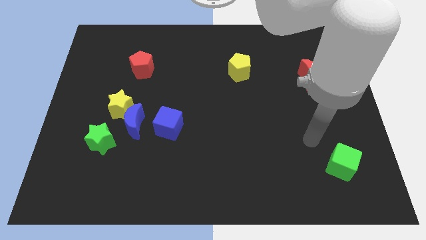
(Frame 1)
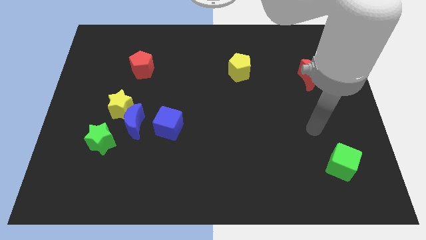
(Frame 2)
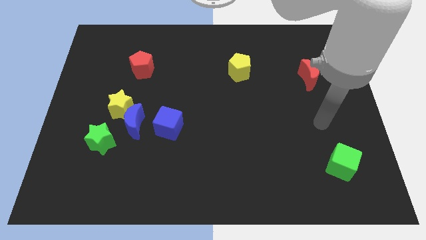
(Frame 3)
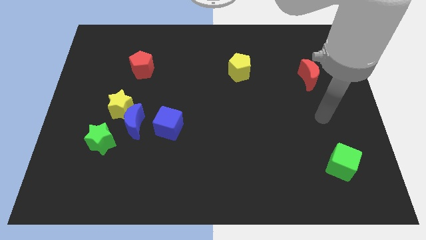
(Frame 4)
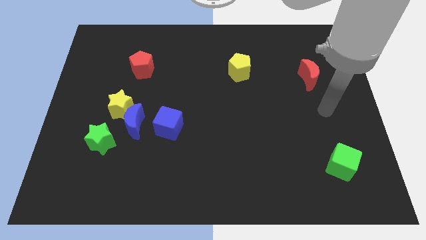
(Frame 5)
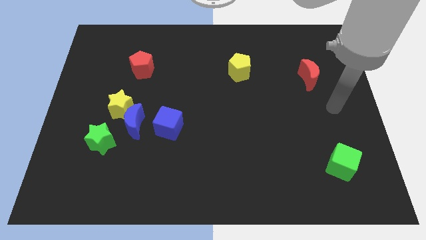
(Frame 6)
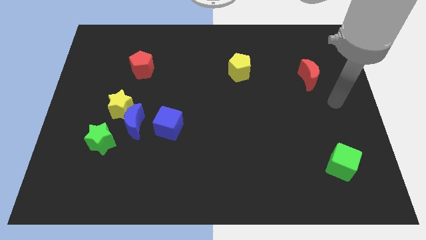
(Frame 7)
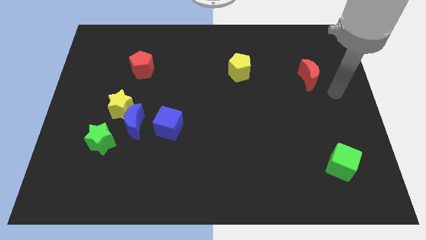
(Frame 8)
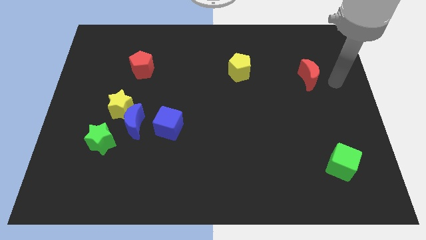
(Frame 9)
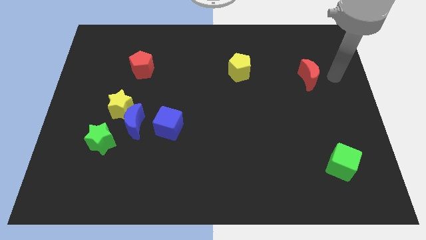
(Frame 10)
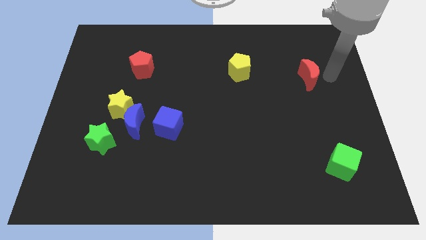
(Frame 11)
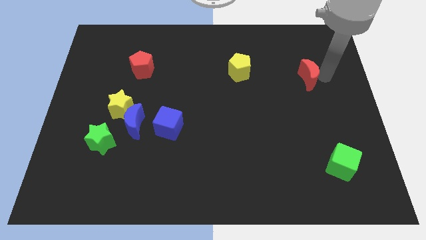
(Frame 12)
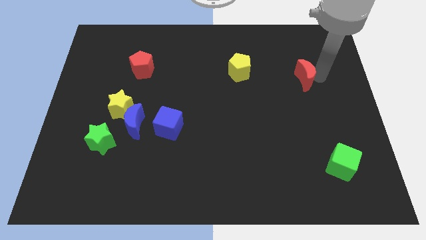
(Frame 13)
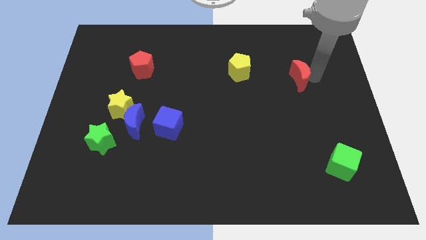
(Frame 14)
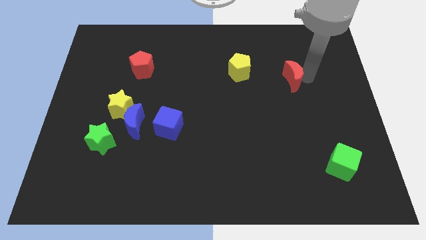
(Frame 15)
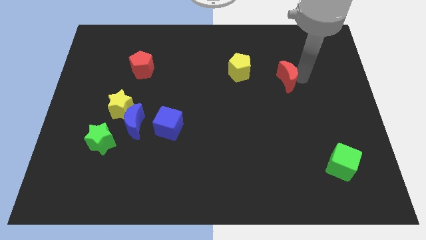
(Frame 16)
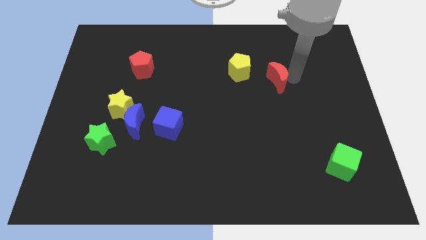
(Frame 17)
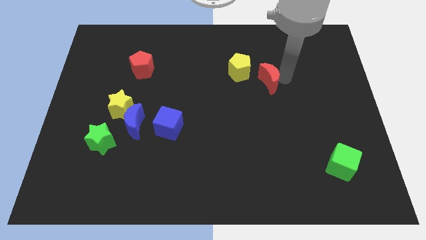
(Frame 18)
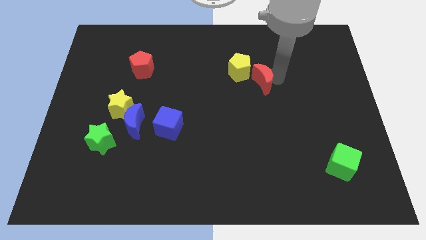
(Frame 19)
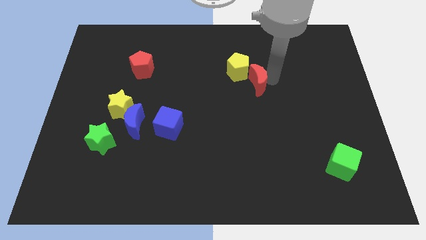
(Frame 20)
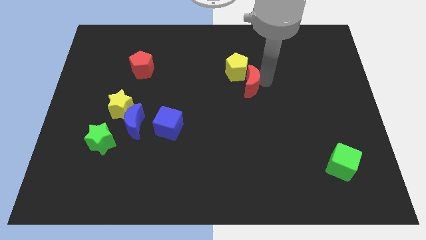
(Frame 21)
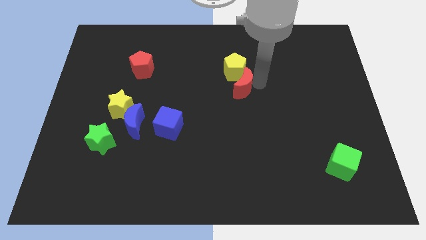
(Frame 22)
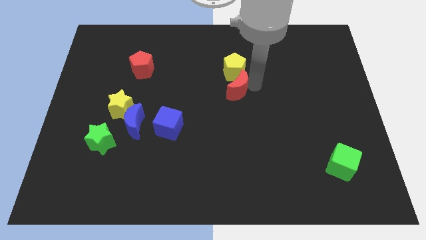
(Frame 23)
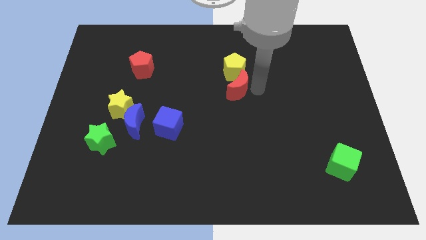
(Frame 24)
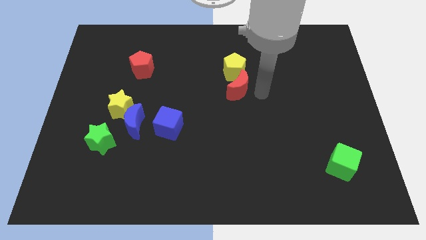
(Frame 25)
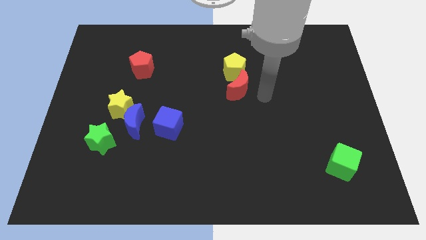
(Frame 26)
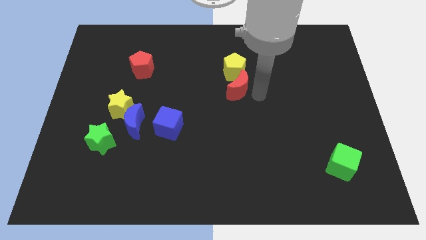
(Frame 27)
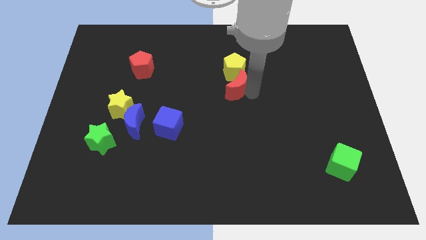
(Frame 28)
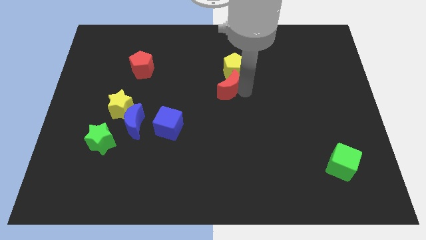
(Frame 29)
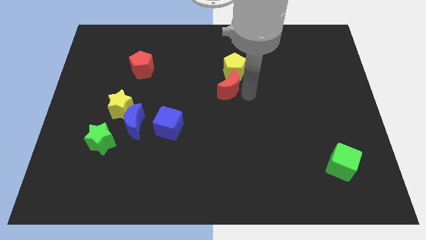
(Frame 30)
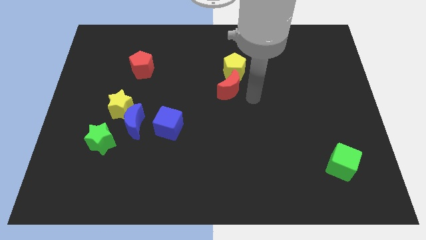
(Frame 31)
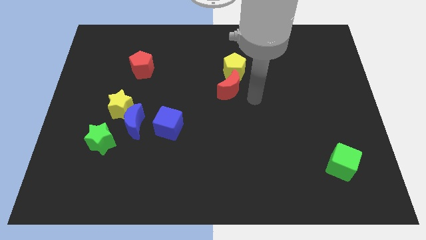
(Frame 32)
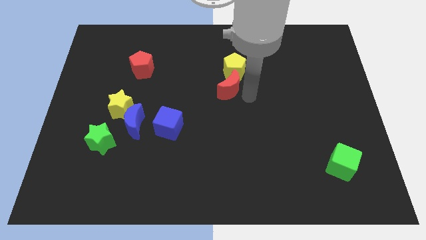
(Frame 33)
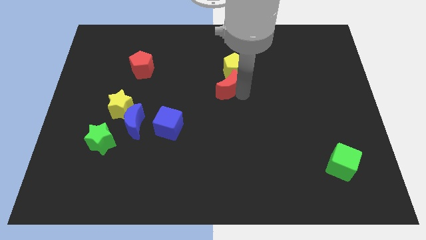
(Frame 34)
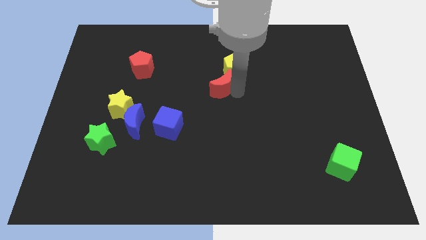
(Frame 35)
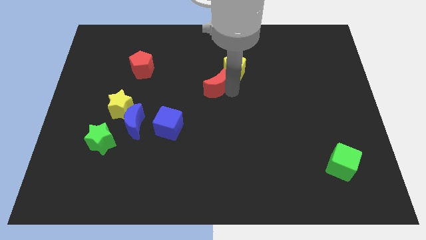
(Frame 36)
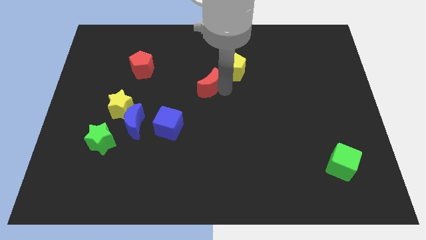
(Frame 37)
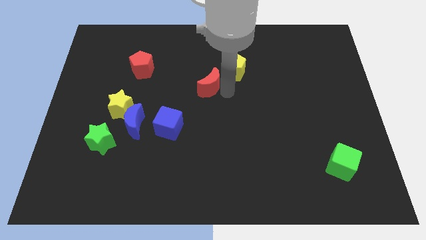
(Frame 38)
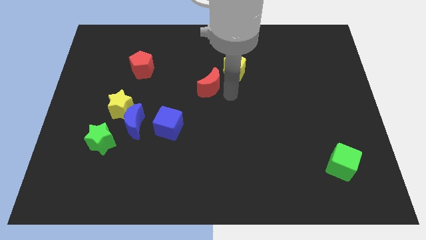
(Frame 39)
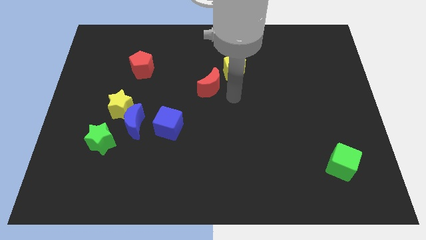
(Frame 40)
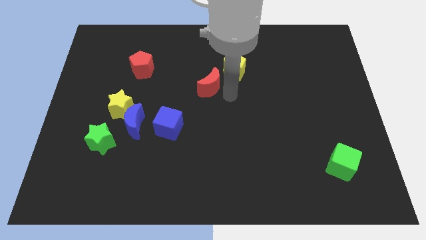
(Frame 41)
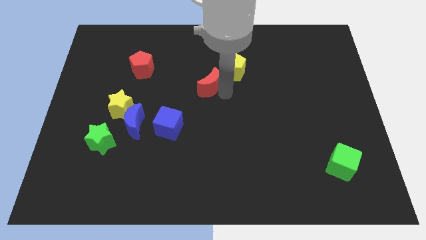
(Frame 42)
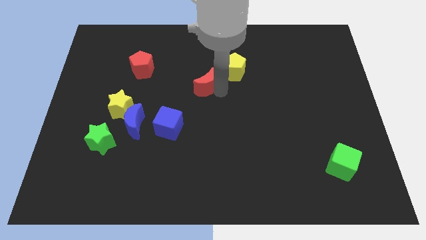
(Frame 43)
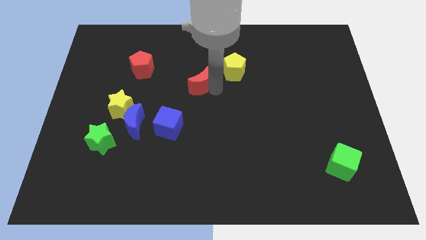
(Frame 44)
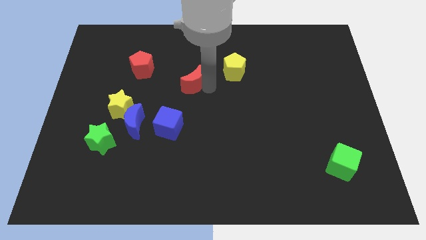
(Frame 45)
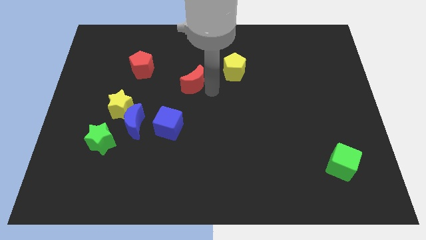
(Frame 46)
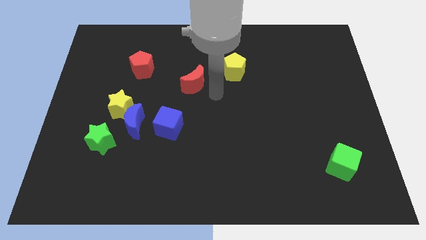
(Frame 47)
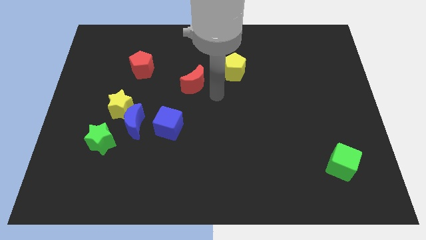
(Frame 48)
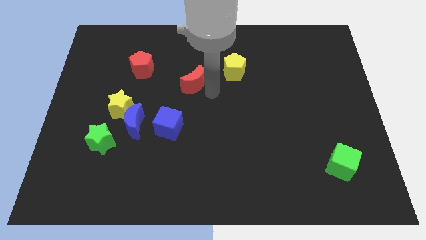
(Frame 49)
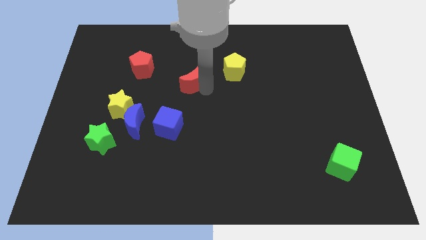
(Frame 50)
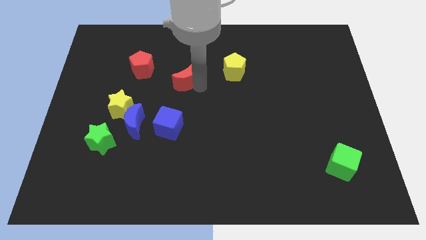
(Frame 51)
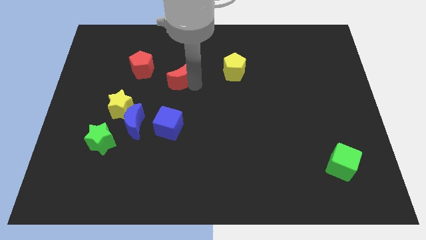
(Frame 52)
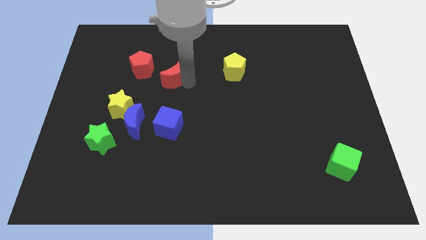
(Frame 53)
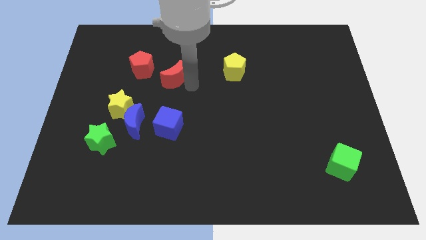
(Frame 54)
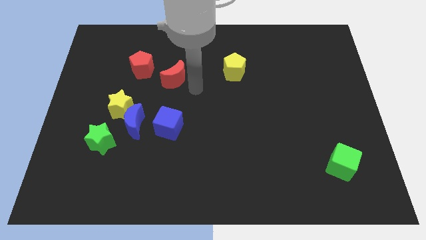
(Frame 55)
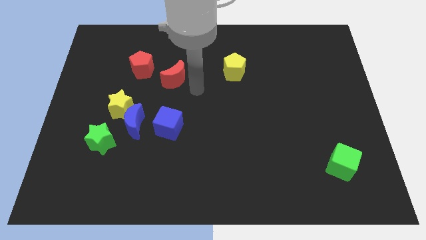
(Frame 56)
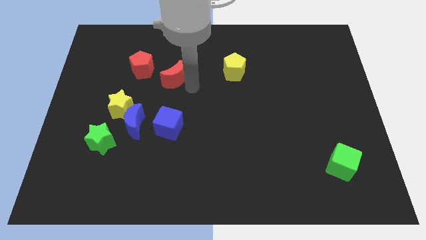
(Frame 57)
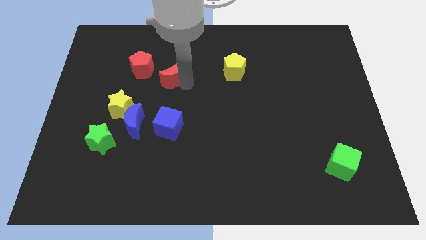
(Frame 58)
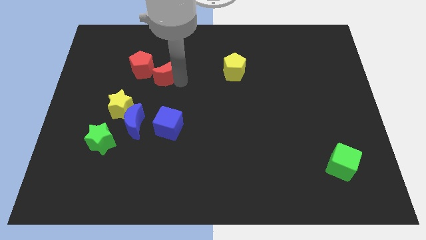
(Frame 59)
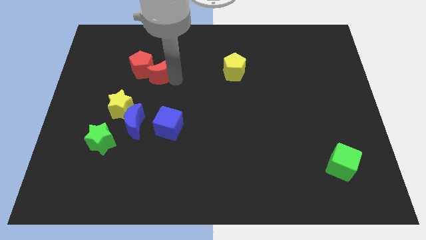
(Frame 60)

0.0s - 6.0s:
move the red moon next to the red pentagon
